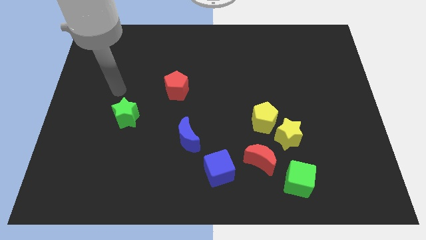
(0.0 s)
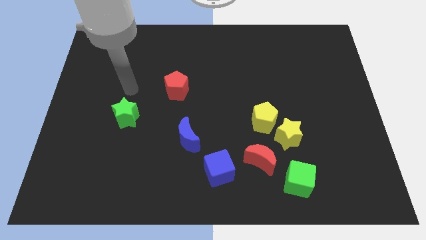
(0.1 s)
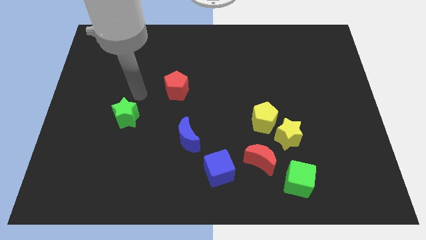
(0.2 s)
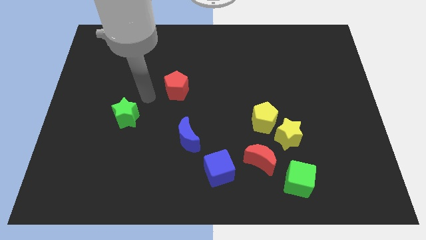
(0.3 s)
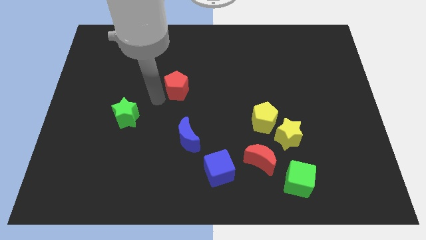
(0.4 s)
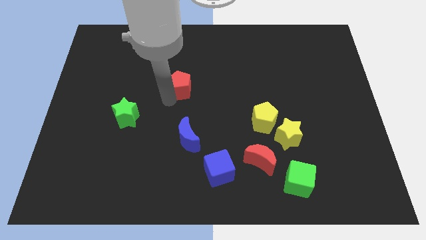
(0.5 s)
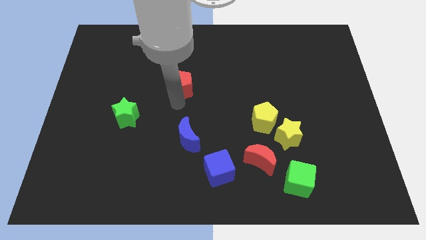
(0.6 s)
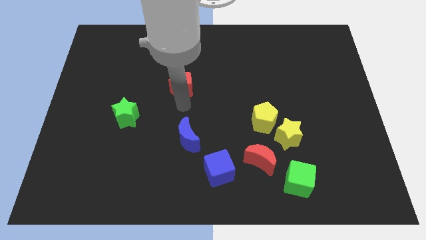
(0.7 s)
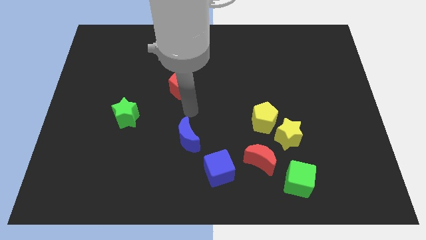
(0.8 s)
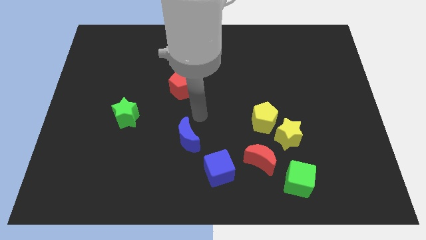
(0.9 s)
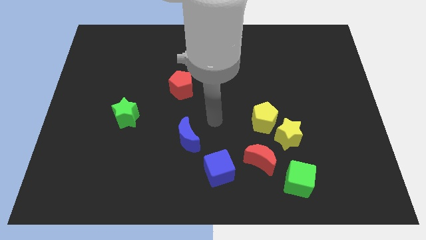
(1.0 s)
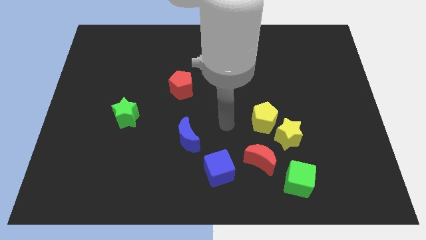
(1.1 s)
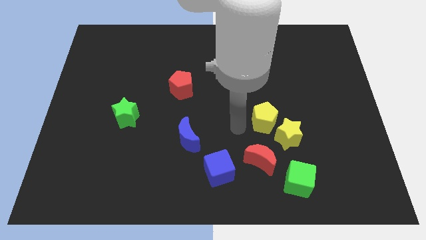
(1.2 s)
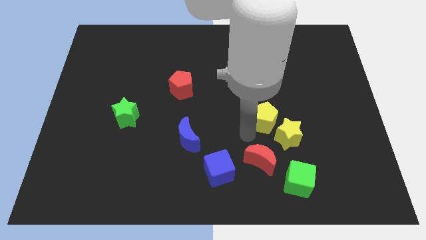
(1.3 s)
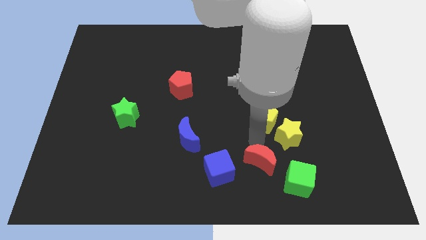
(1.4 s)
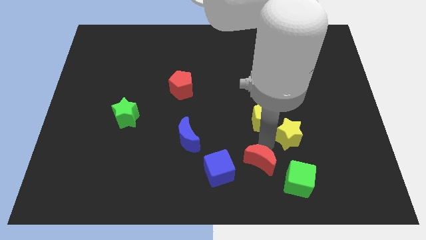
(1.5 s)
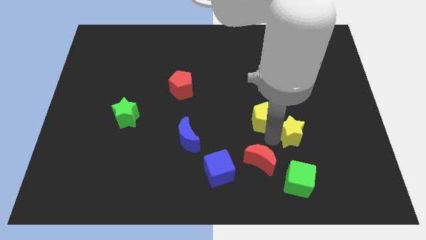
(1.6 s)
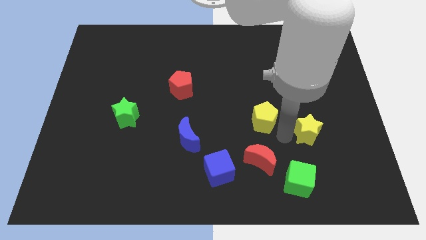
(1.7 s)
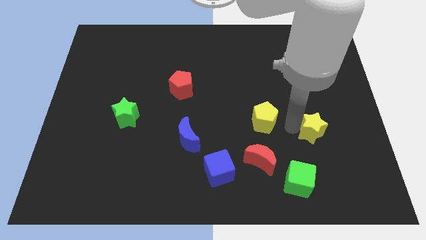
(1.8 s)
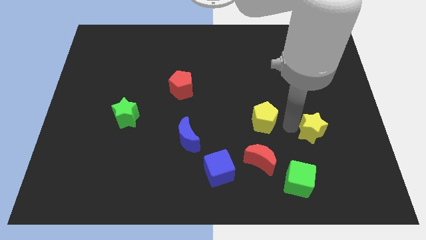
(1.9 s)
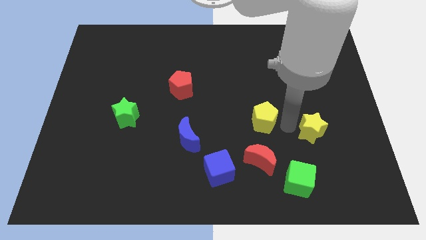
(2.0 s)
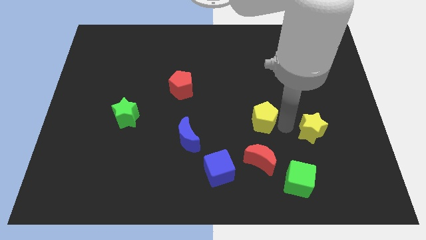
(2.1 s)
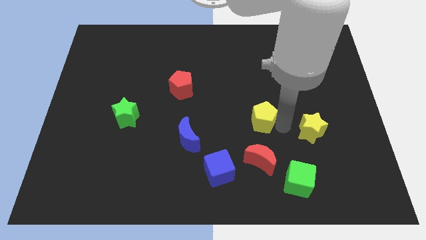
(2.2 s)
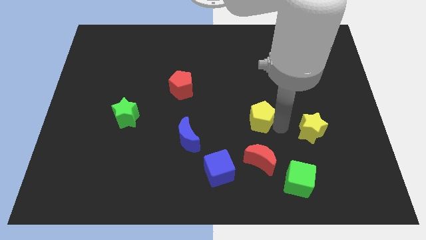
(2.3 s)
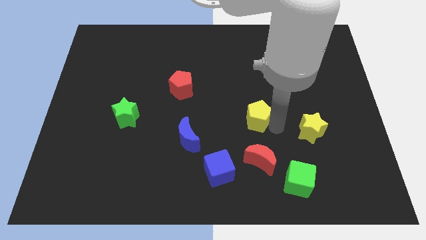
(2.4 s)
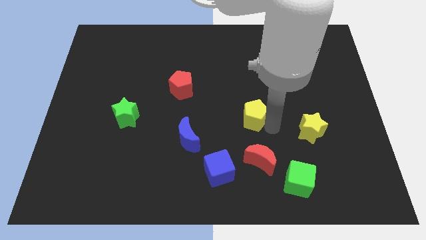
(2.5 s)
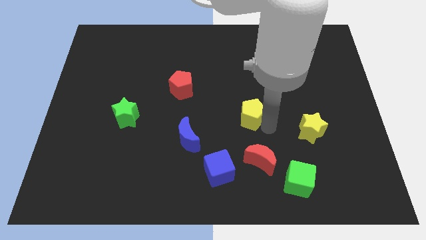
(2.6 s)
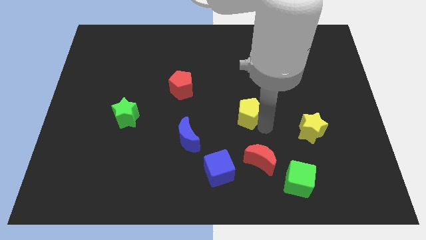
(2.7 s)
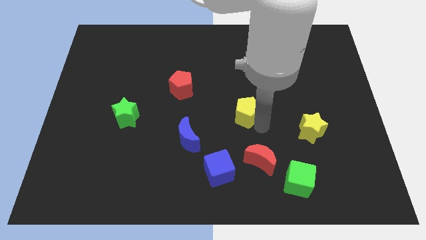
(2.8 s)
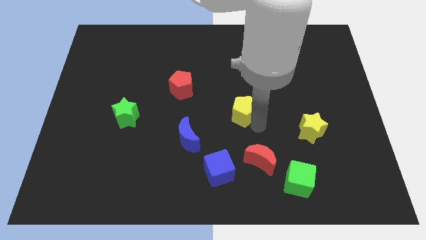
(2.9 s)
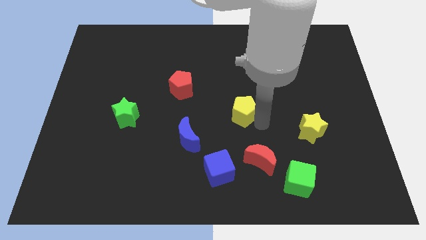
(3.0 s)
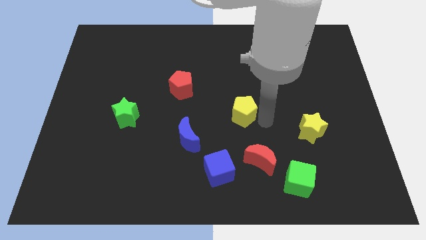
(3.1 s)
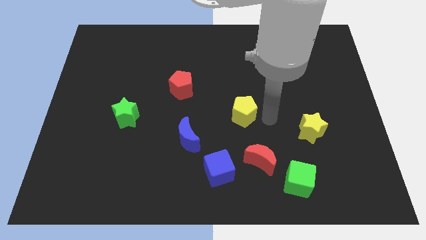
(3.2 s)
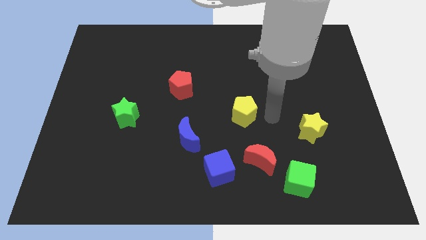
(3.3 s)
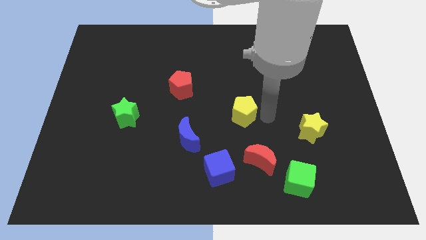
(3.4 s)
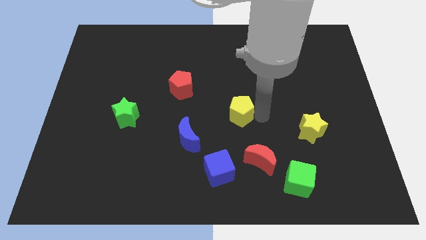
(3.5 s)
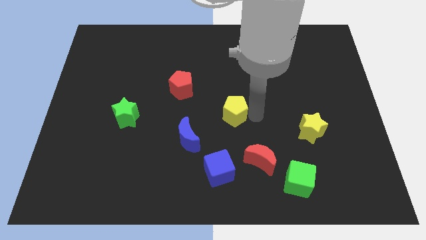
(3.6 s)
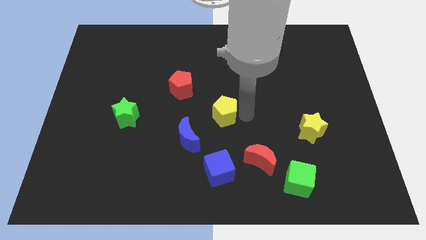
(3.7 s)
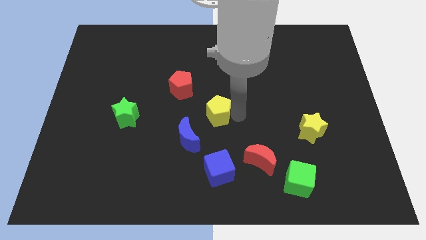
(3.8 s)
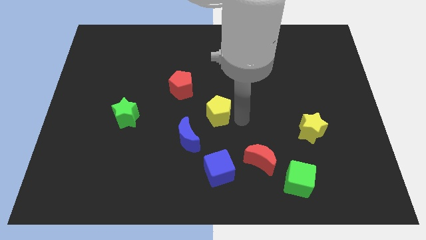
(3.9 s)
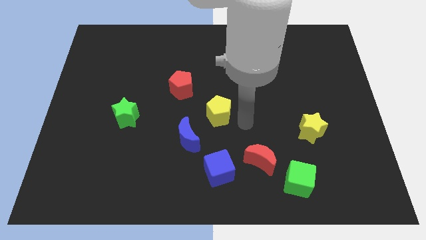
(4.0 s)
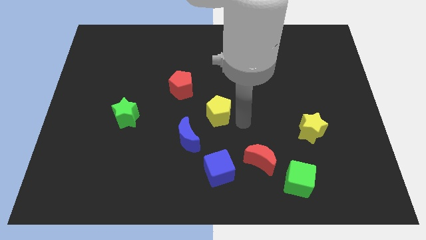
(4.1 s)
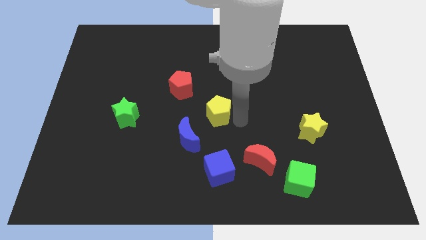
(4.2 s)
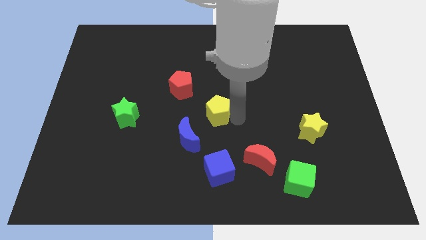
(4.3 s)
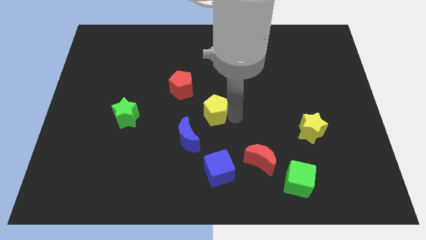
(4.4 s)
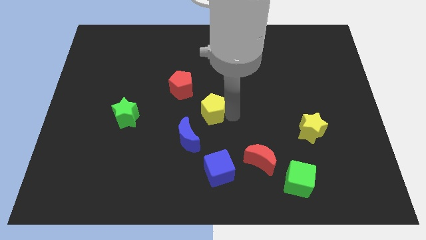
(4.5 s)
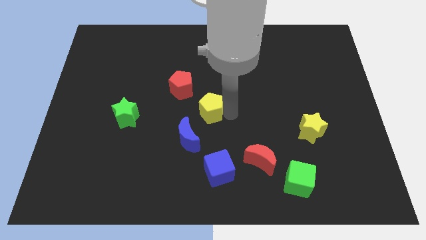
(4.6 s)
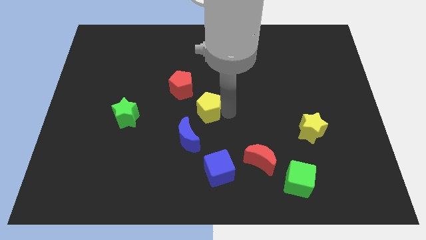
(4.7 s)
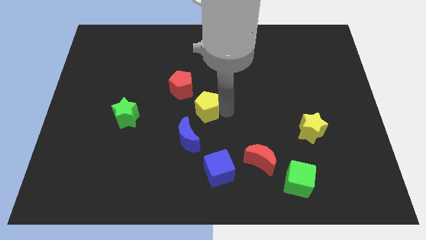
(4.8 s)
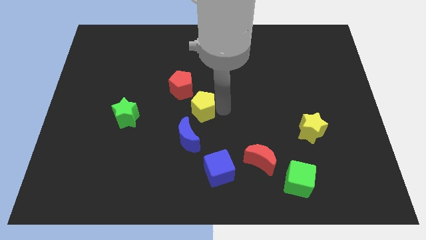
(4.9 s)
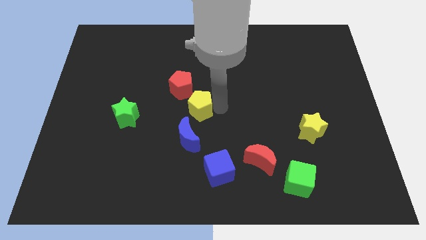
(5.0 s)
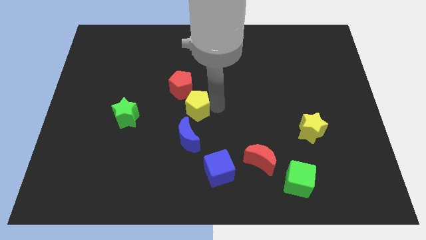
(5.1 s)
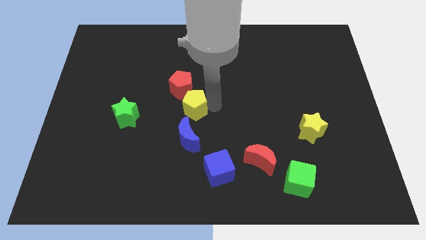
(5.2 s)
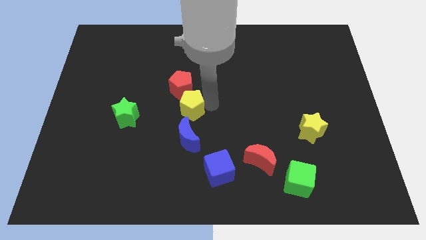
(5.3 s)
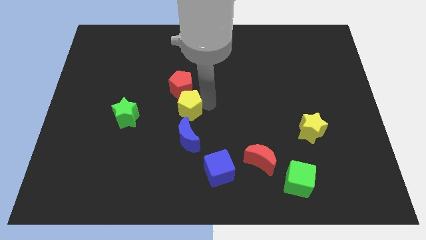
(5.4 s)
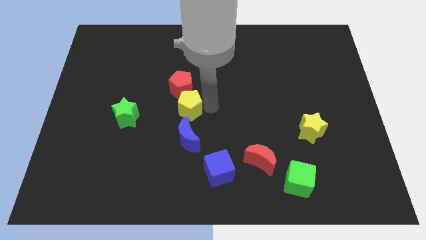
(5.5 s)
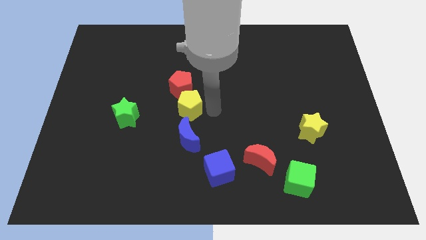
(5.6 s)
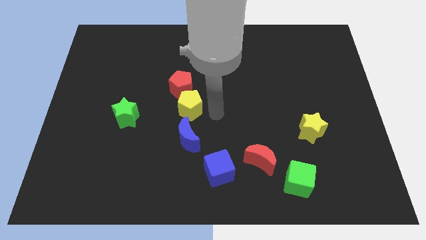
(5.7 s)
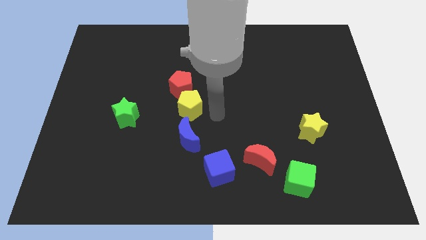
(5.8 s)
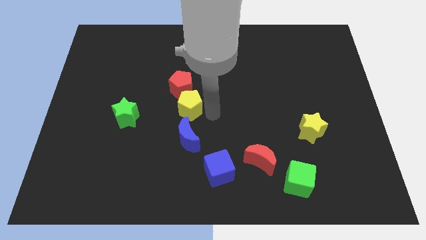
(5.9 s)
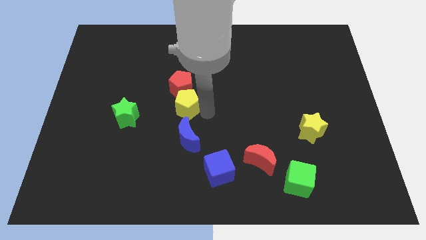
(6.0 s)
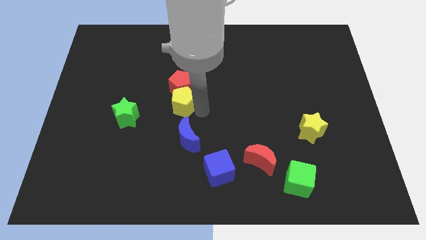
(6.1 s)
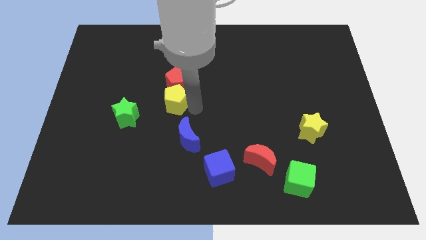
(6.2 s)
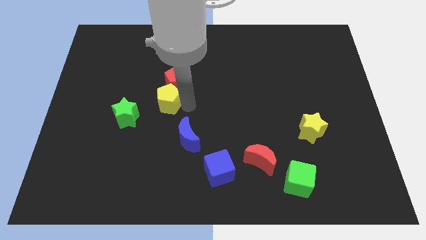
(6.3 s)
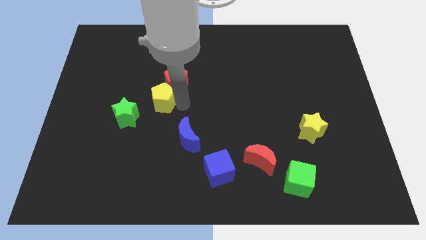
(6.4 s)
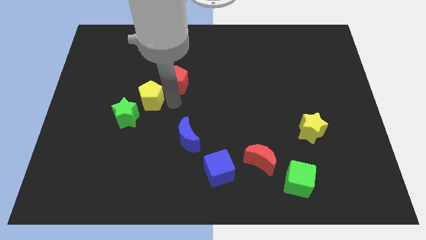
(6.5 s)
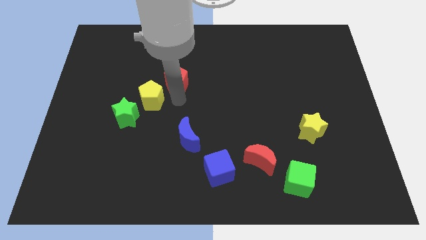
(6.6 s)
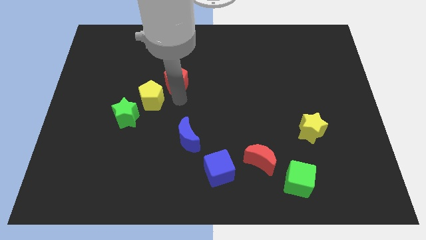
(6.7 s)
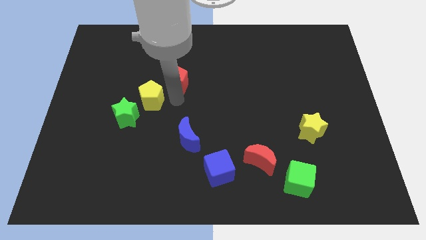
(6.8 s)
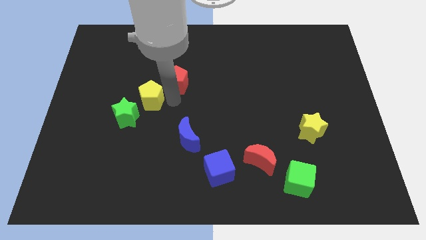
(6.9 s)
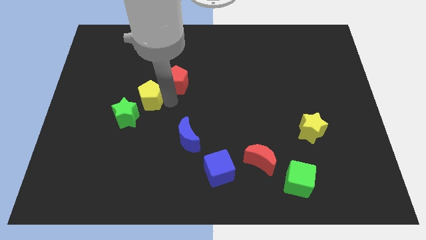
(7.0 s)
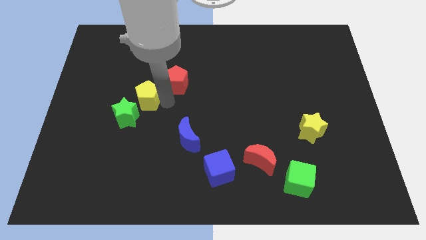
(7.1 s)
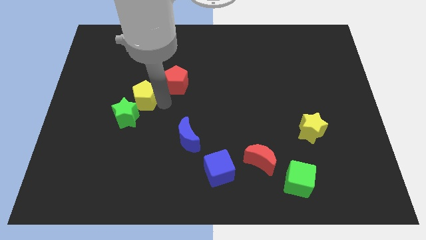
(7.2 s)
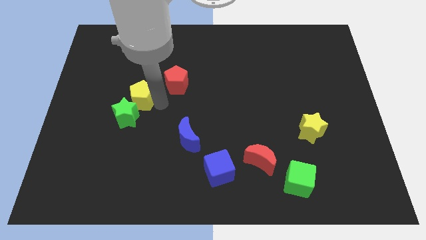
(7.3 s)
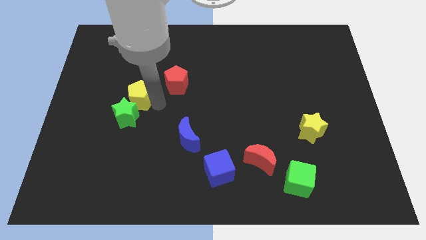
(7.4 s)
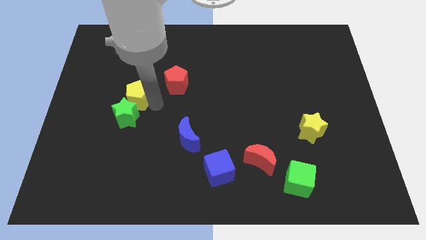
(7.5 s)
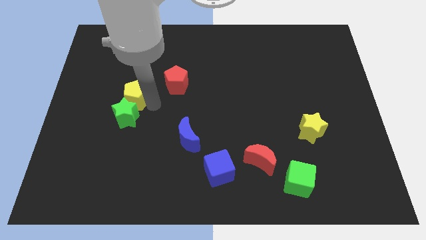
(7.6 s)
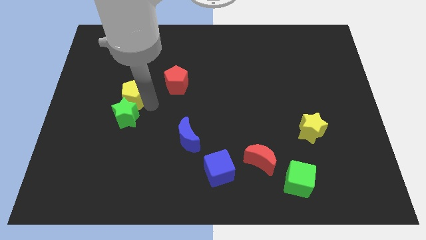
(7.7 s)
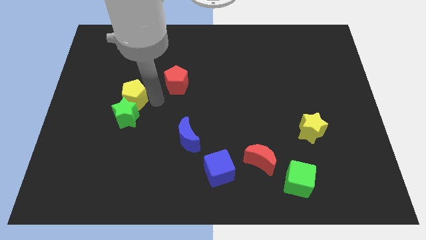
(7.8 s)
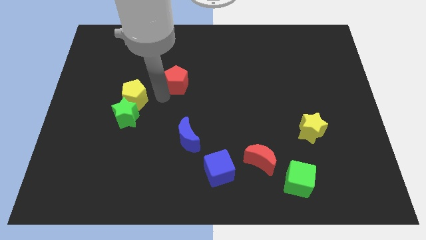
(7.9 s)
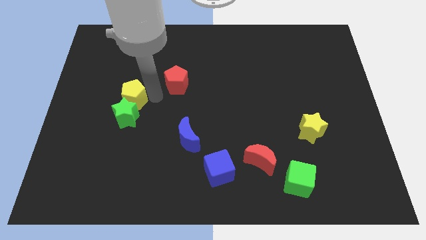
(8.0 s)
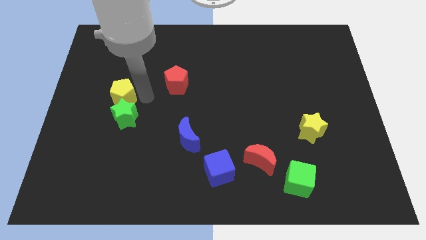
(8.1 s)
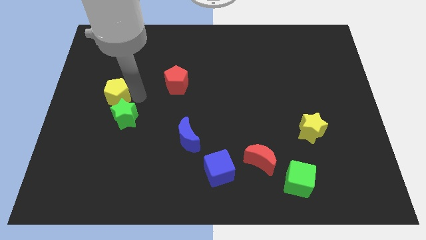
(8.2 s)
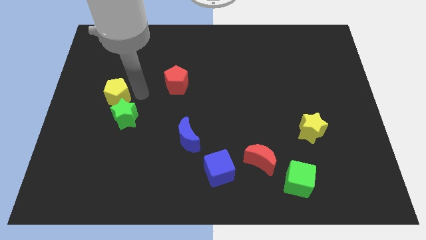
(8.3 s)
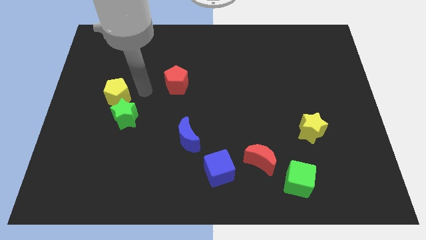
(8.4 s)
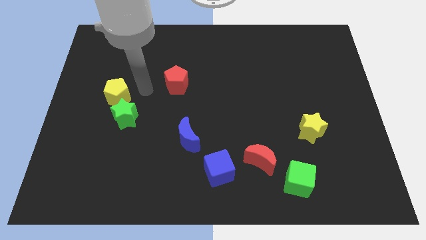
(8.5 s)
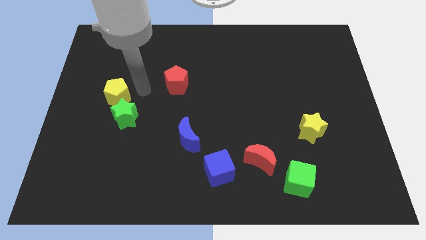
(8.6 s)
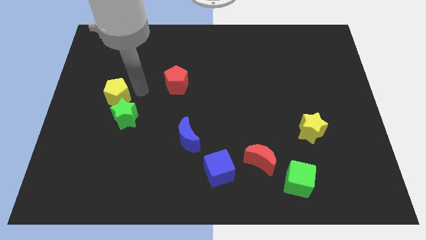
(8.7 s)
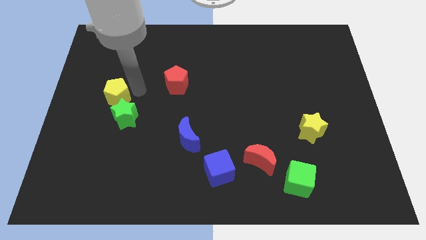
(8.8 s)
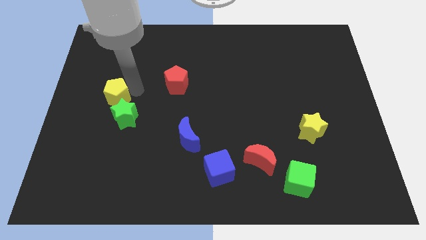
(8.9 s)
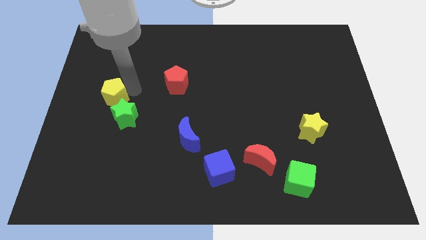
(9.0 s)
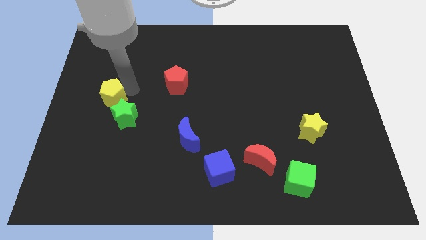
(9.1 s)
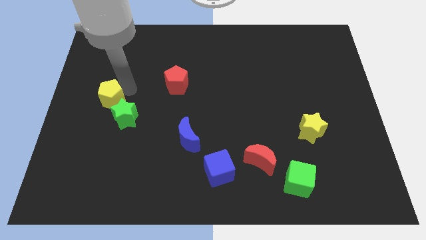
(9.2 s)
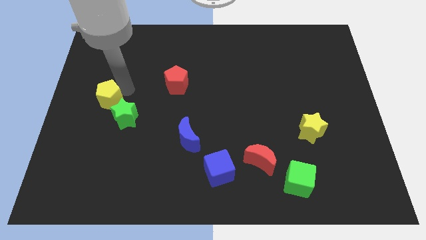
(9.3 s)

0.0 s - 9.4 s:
move the yellow pentagon to the left side of the board
